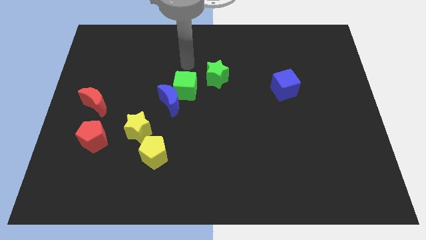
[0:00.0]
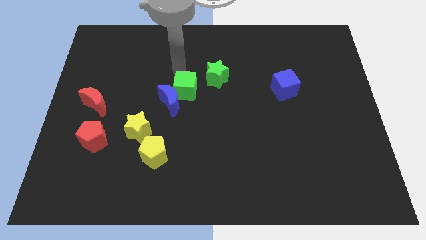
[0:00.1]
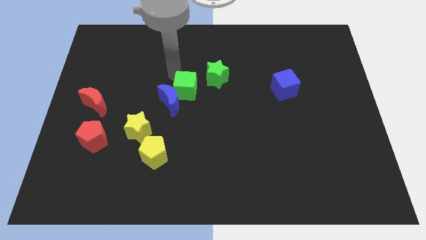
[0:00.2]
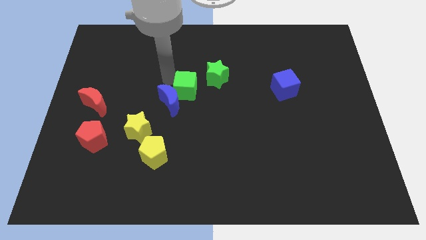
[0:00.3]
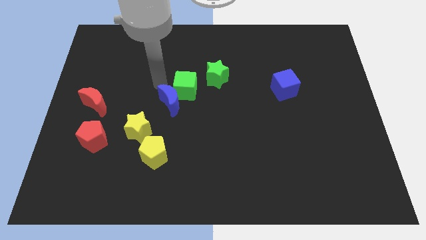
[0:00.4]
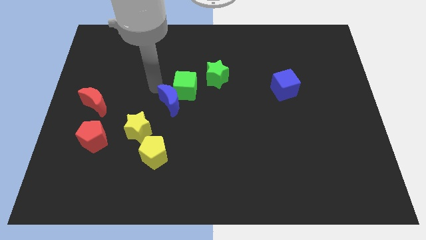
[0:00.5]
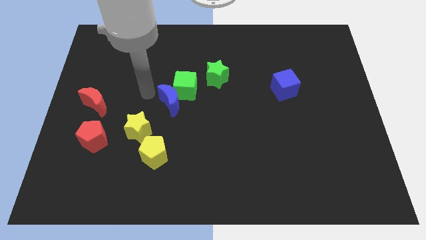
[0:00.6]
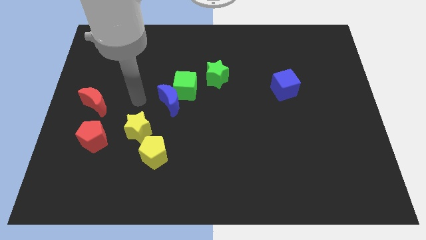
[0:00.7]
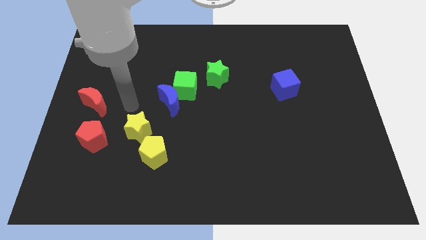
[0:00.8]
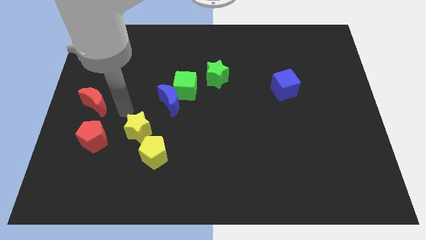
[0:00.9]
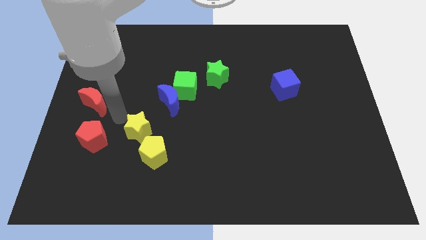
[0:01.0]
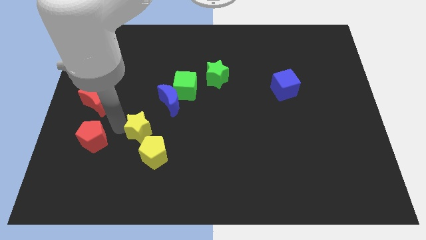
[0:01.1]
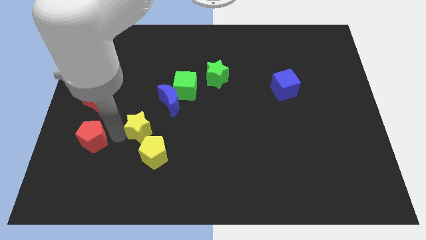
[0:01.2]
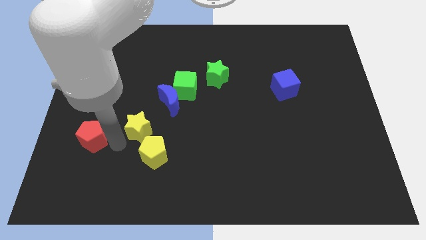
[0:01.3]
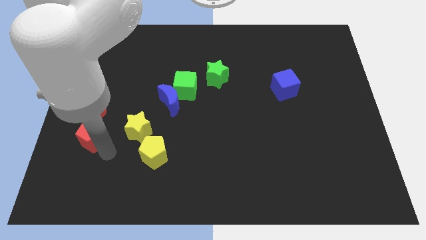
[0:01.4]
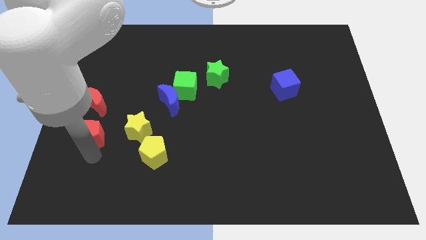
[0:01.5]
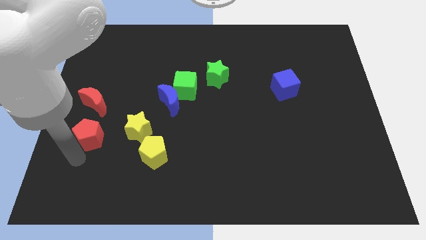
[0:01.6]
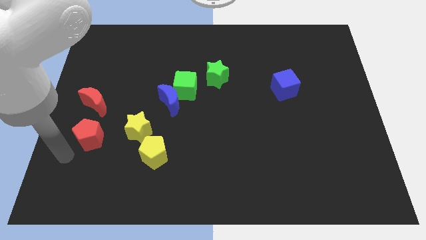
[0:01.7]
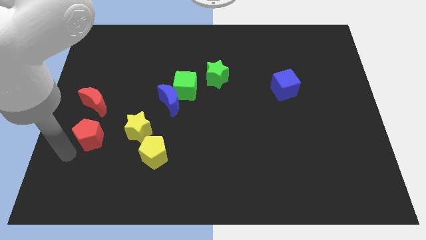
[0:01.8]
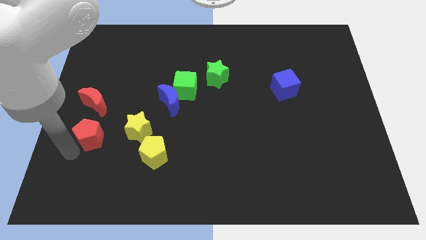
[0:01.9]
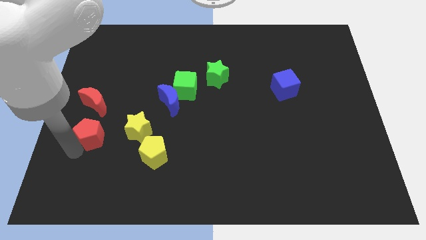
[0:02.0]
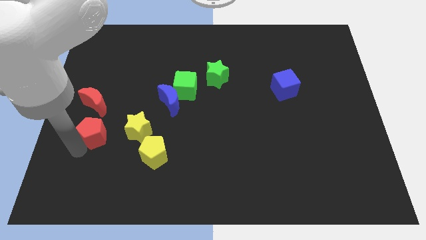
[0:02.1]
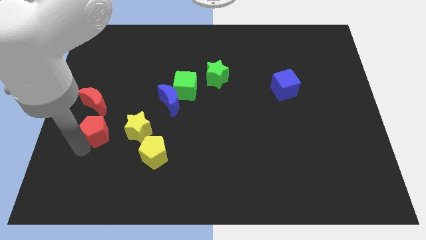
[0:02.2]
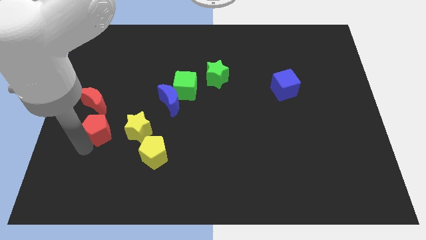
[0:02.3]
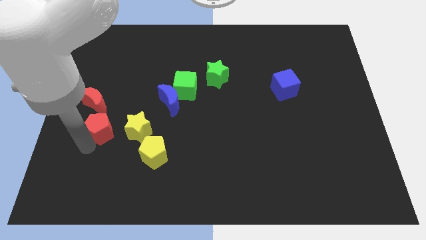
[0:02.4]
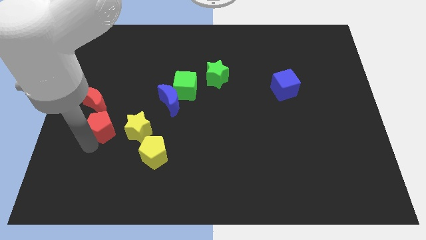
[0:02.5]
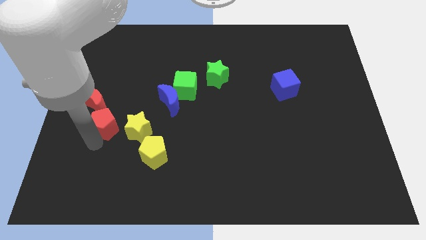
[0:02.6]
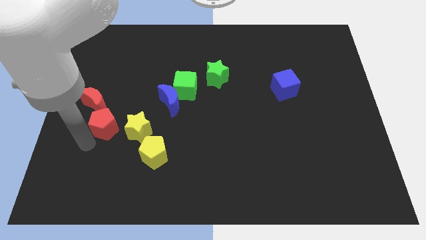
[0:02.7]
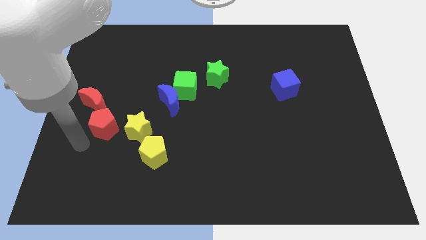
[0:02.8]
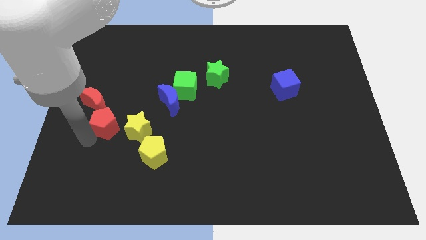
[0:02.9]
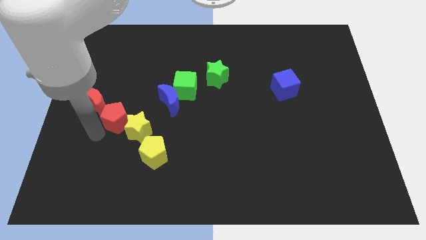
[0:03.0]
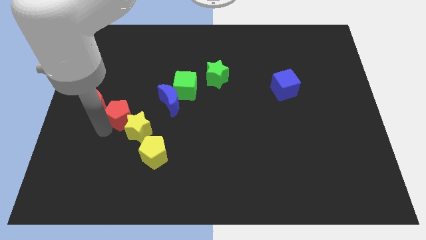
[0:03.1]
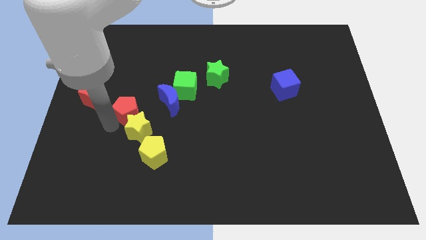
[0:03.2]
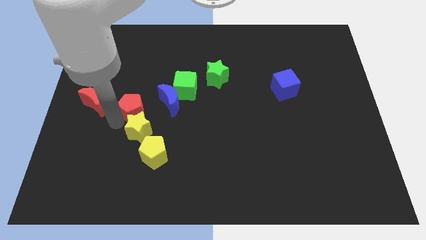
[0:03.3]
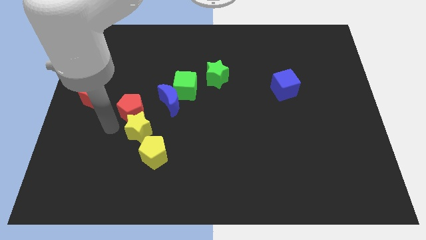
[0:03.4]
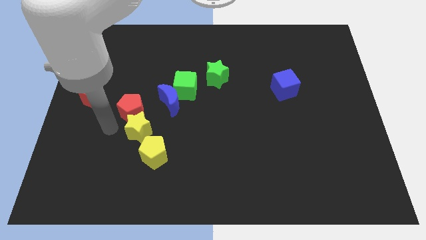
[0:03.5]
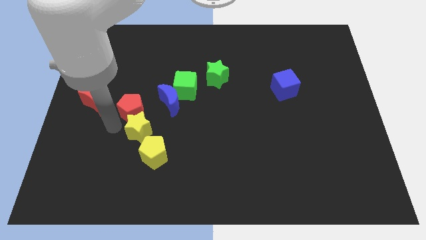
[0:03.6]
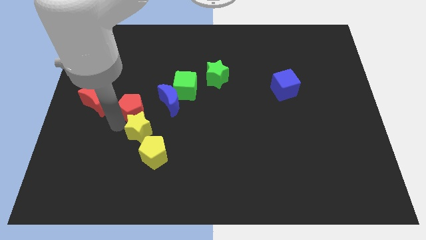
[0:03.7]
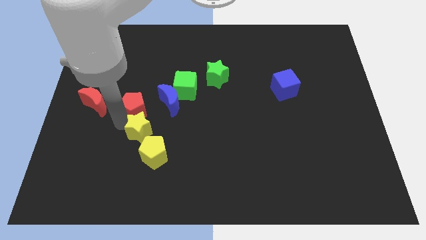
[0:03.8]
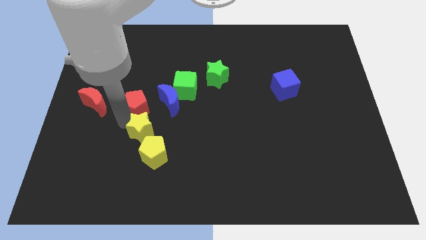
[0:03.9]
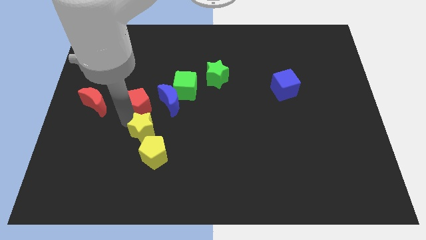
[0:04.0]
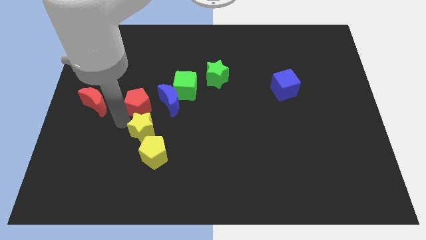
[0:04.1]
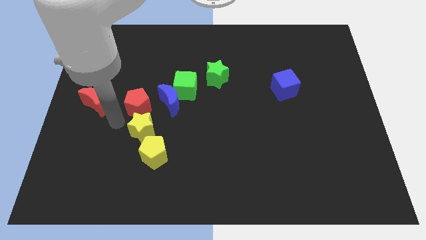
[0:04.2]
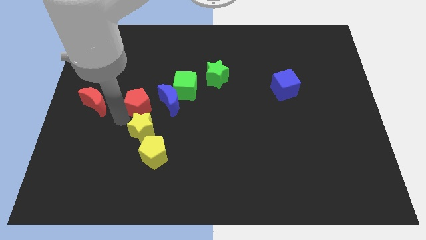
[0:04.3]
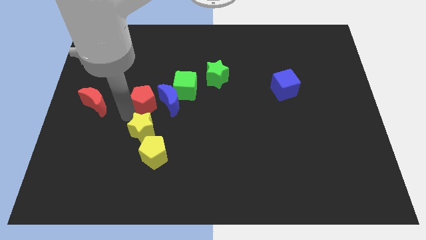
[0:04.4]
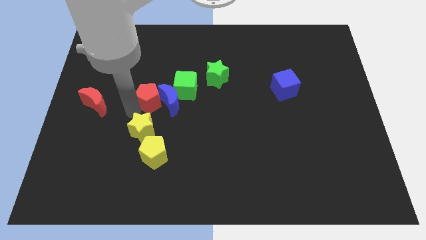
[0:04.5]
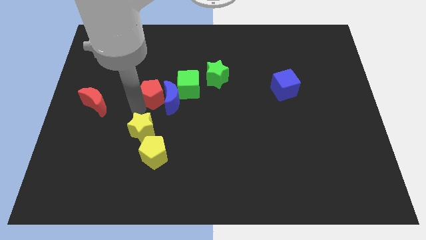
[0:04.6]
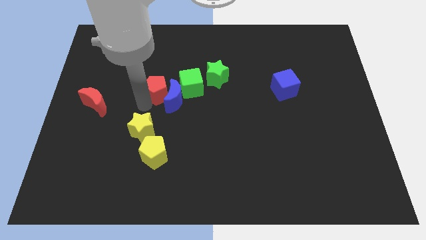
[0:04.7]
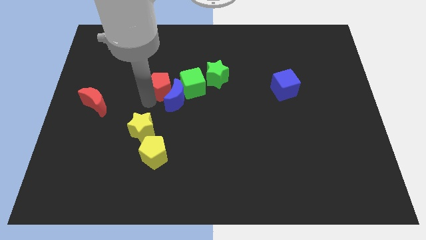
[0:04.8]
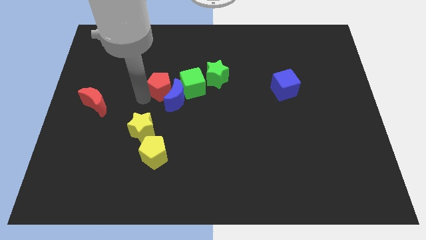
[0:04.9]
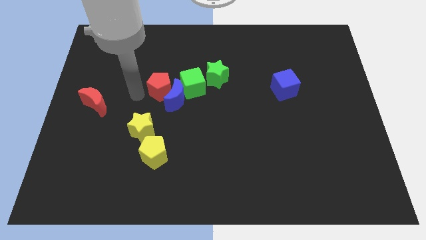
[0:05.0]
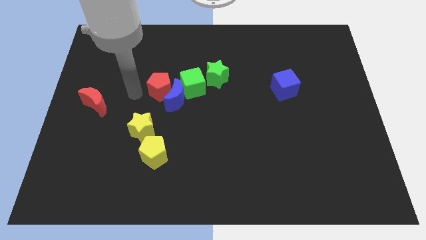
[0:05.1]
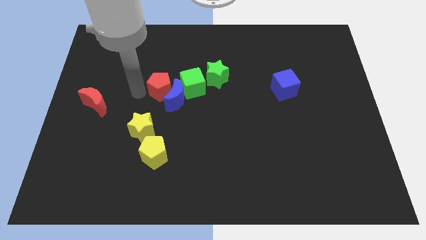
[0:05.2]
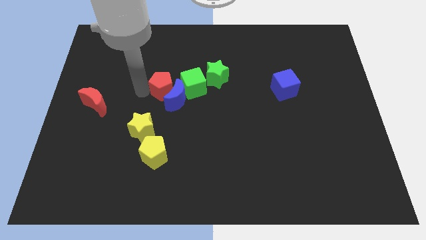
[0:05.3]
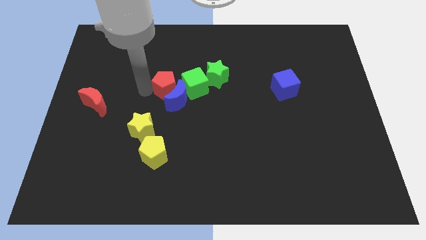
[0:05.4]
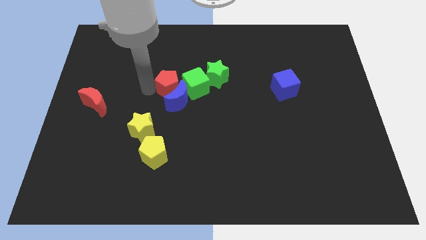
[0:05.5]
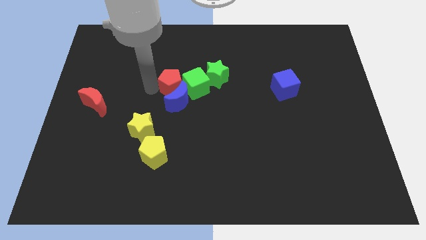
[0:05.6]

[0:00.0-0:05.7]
push the red pentagon towards the green cube

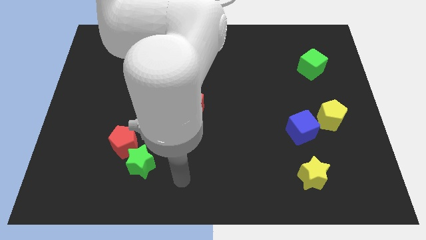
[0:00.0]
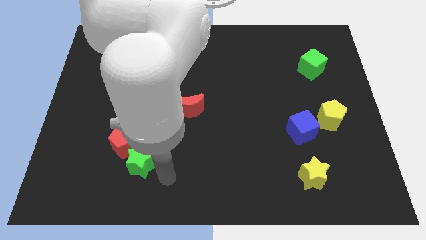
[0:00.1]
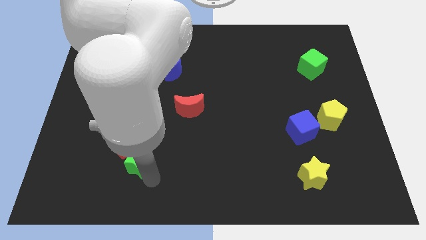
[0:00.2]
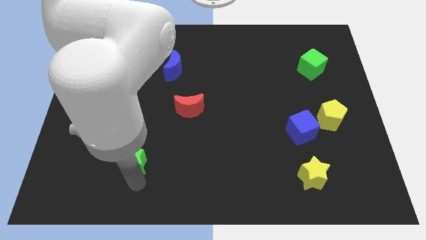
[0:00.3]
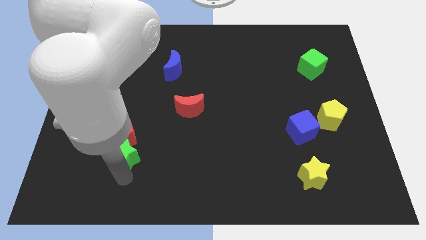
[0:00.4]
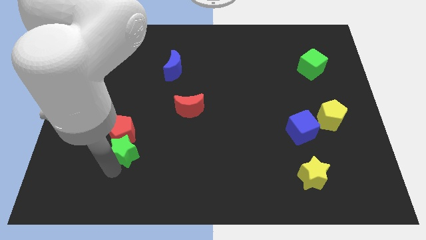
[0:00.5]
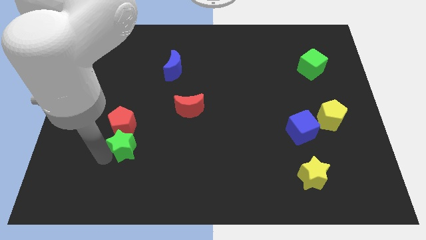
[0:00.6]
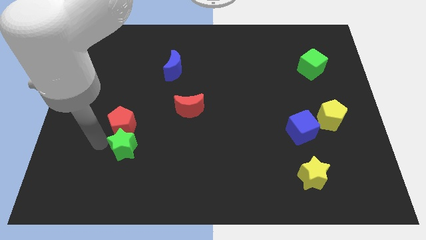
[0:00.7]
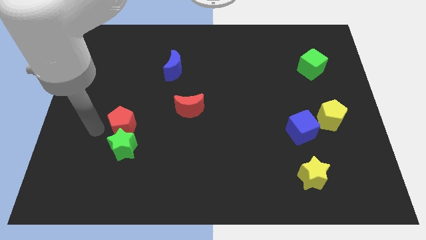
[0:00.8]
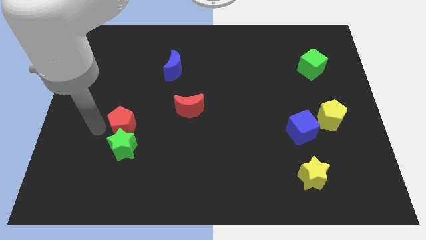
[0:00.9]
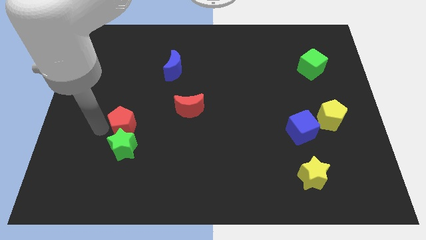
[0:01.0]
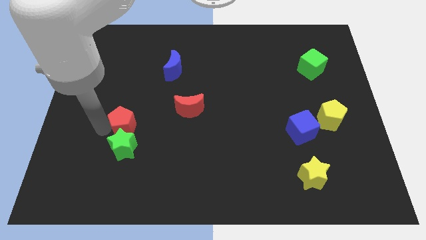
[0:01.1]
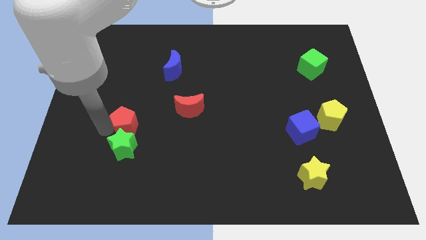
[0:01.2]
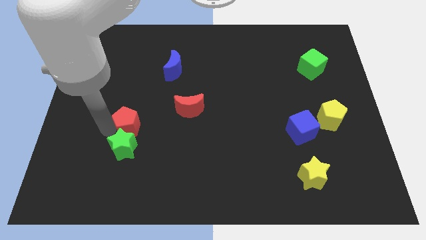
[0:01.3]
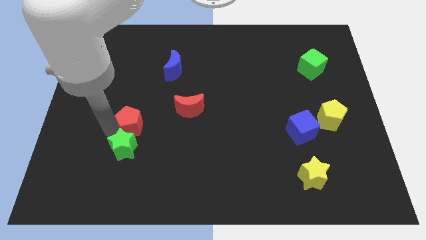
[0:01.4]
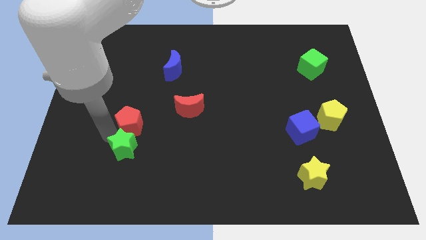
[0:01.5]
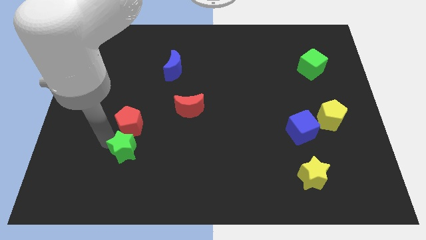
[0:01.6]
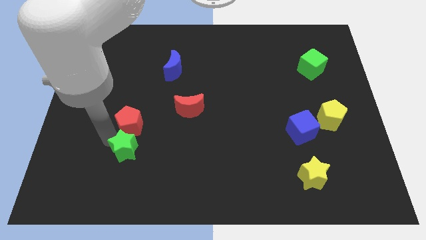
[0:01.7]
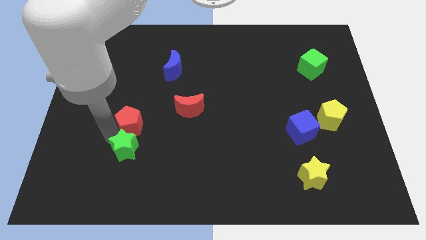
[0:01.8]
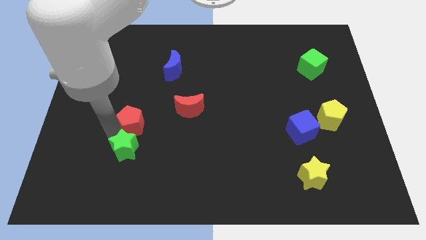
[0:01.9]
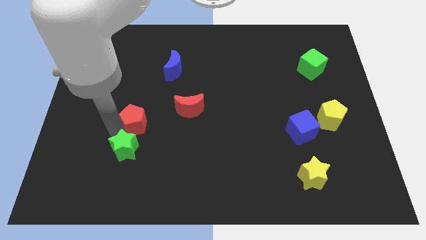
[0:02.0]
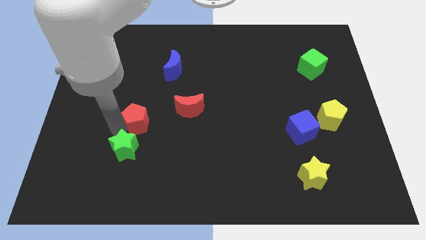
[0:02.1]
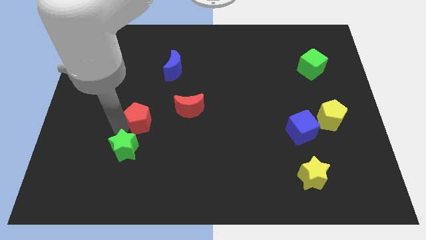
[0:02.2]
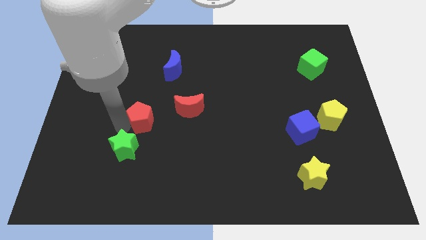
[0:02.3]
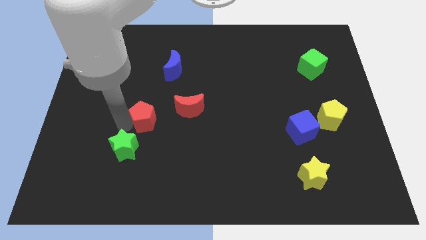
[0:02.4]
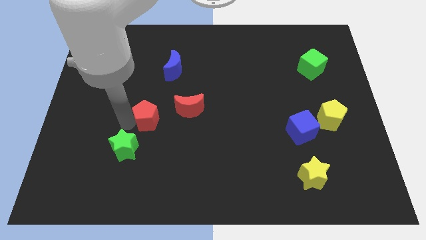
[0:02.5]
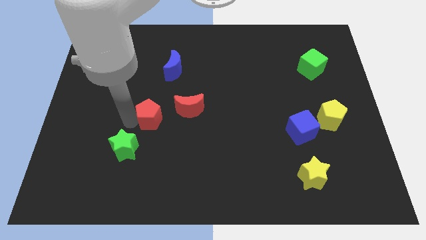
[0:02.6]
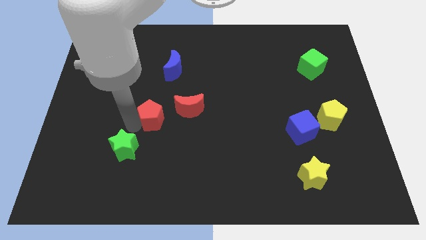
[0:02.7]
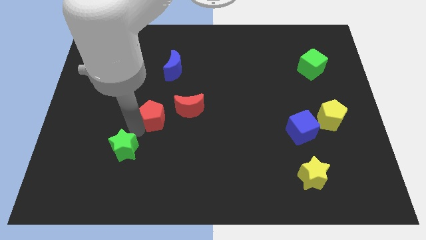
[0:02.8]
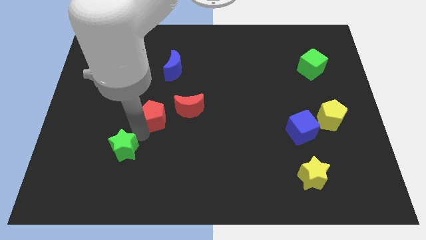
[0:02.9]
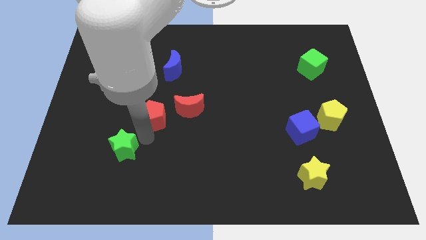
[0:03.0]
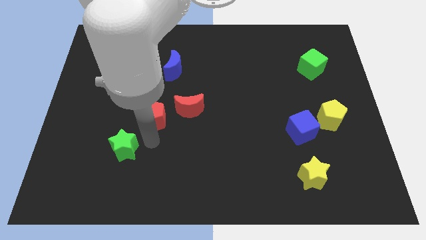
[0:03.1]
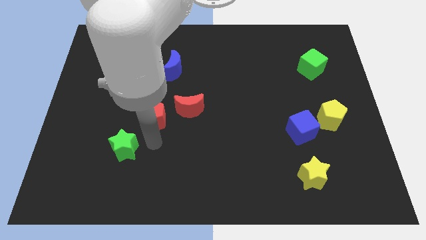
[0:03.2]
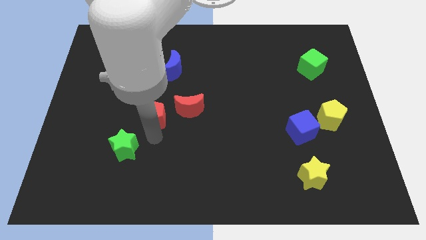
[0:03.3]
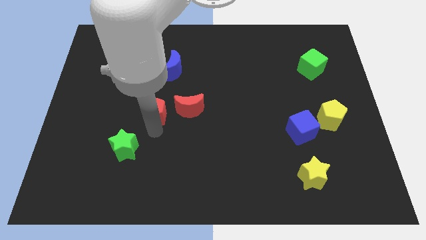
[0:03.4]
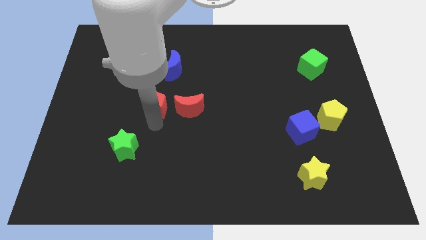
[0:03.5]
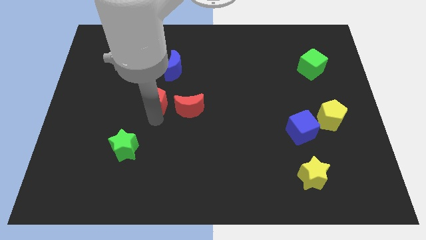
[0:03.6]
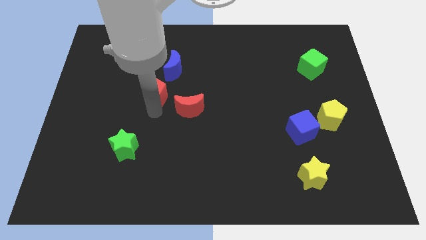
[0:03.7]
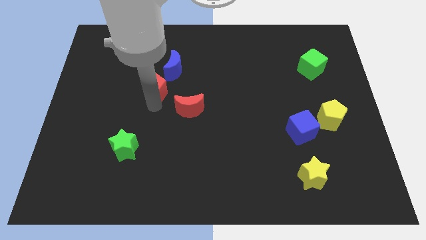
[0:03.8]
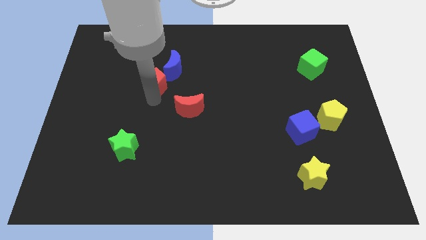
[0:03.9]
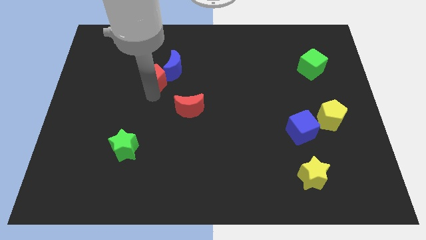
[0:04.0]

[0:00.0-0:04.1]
move the red pentagon close to the blue moon
